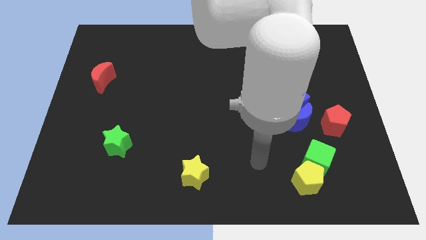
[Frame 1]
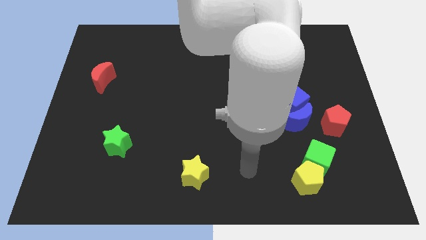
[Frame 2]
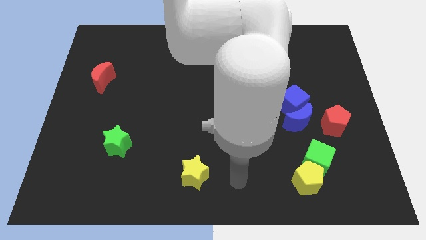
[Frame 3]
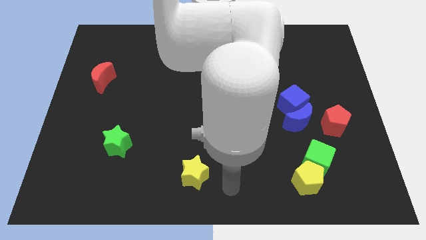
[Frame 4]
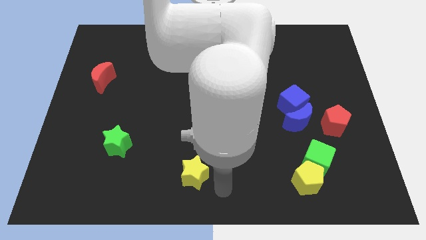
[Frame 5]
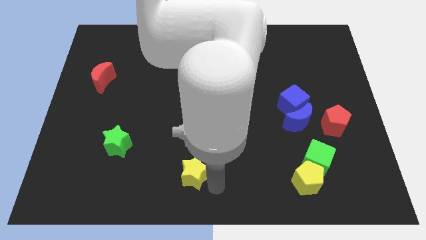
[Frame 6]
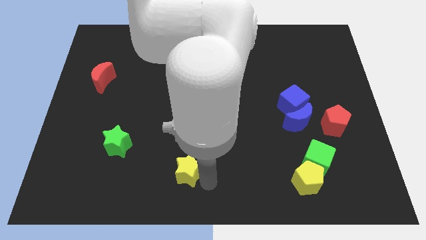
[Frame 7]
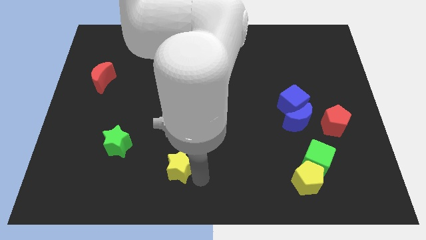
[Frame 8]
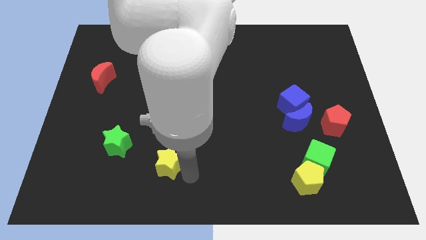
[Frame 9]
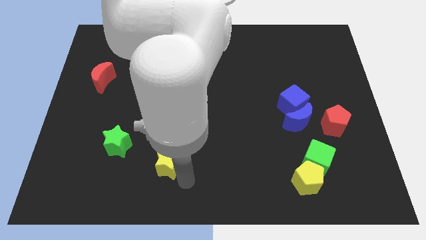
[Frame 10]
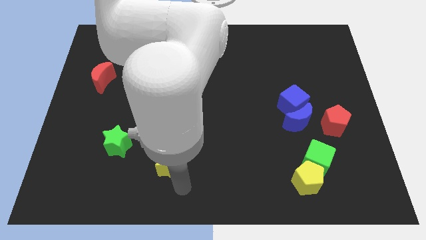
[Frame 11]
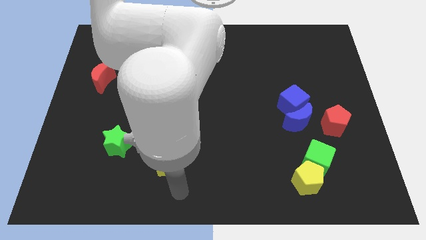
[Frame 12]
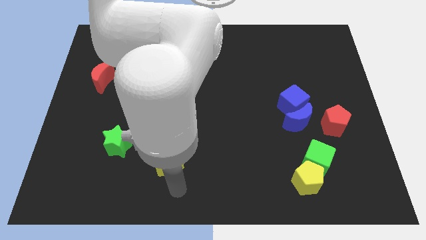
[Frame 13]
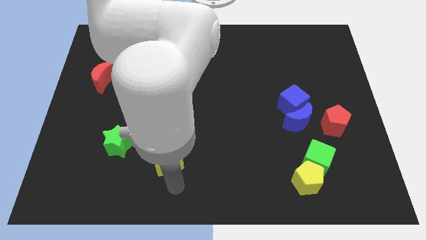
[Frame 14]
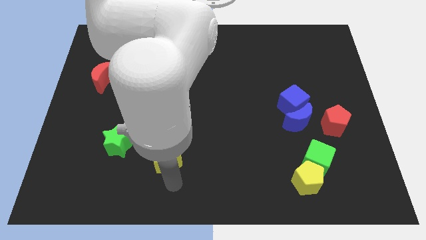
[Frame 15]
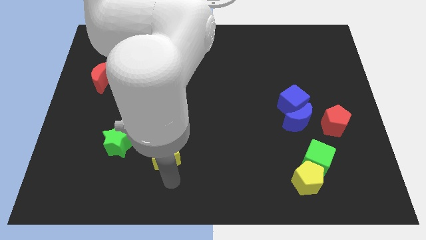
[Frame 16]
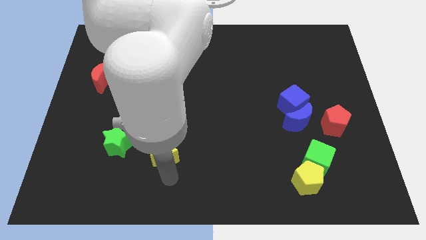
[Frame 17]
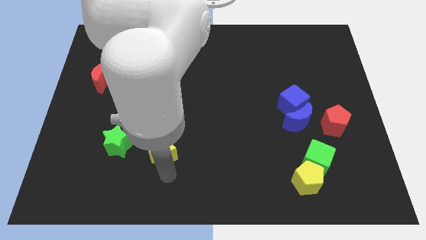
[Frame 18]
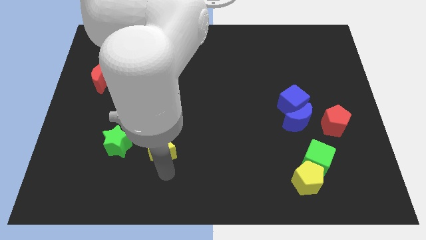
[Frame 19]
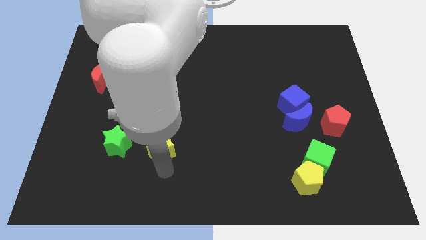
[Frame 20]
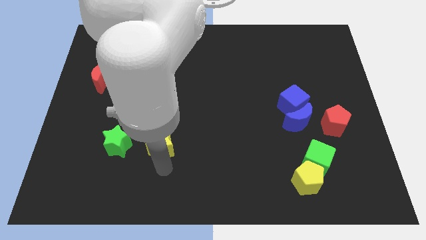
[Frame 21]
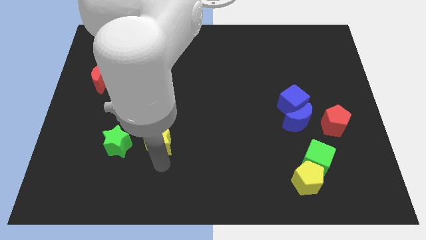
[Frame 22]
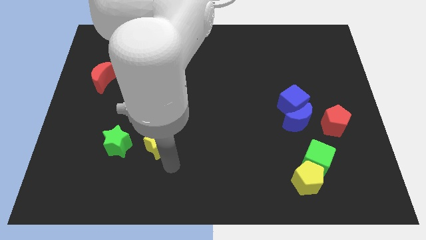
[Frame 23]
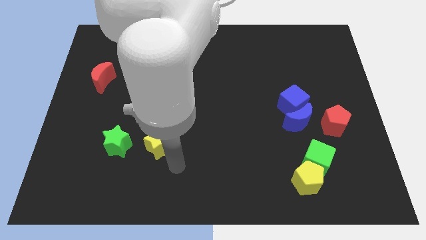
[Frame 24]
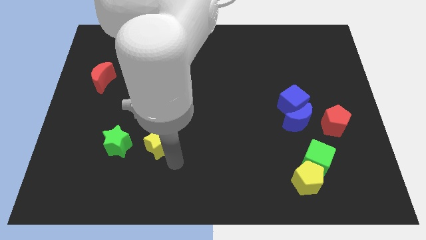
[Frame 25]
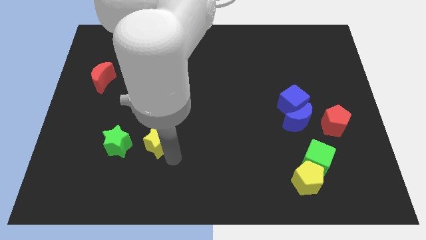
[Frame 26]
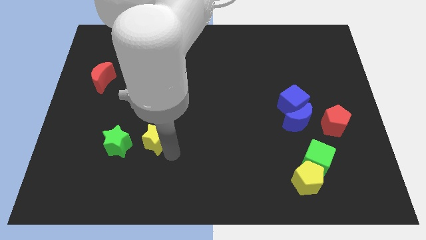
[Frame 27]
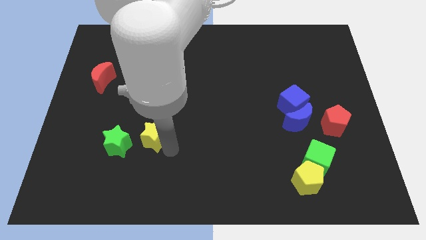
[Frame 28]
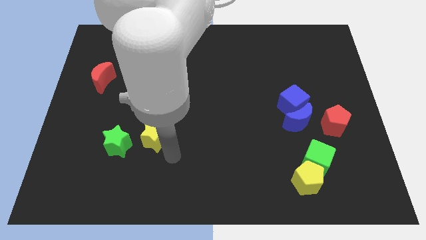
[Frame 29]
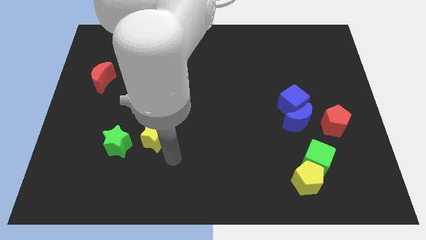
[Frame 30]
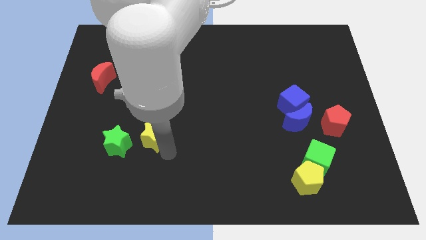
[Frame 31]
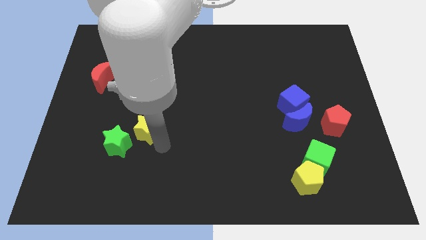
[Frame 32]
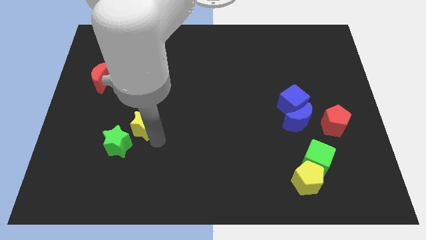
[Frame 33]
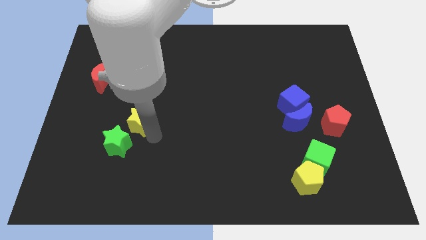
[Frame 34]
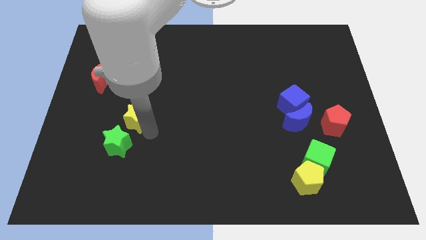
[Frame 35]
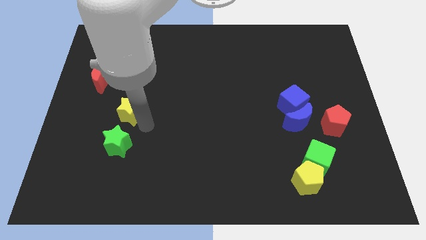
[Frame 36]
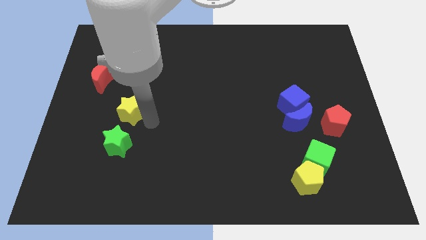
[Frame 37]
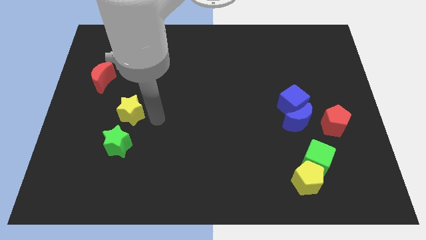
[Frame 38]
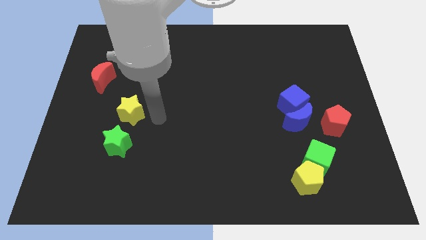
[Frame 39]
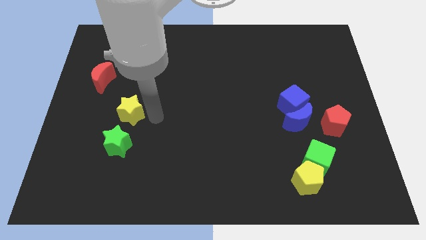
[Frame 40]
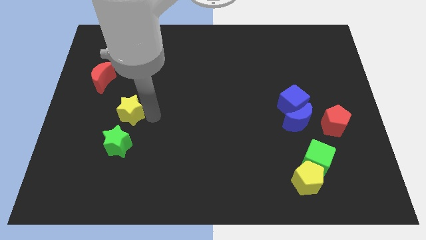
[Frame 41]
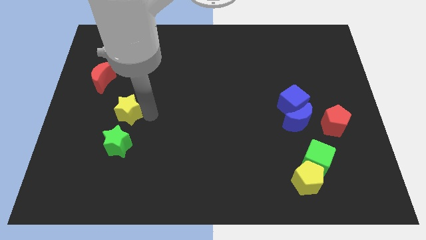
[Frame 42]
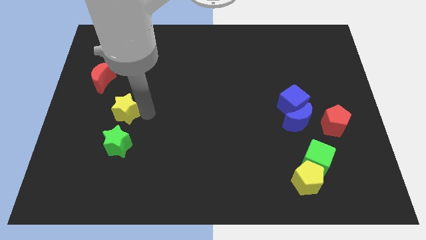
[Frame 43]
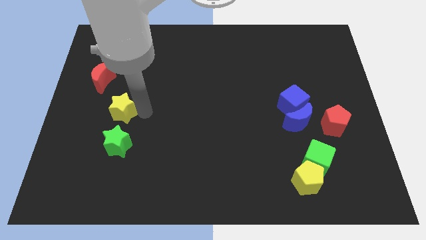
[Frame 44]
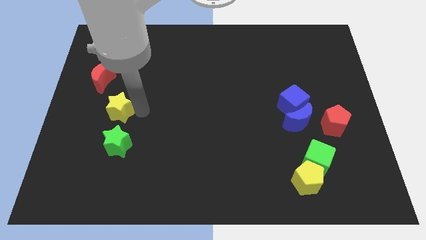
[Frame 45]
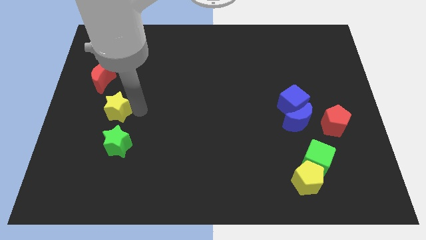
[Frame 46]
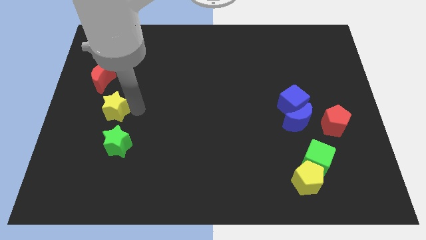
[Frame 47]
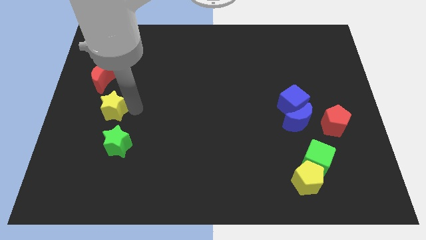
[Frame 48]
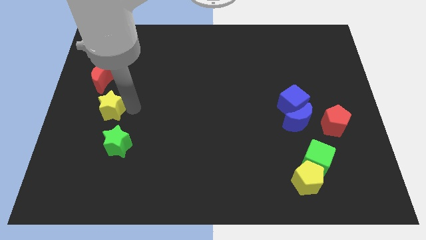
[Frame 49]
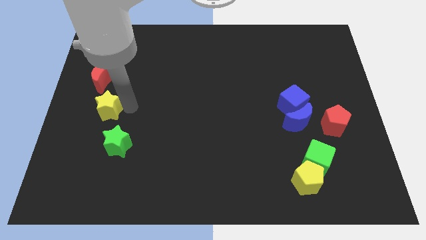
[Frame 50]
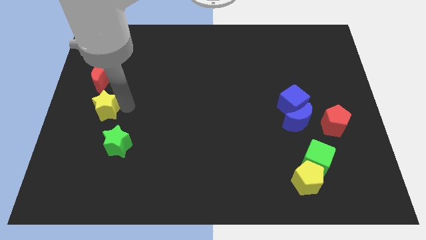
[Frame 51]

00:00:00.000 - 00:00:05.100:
push the yellow star to the left side of the board

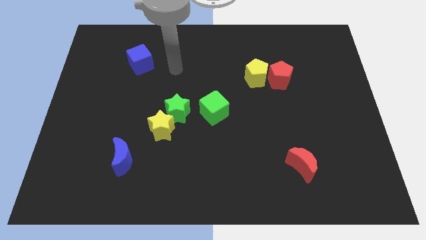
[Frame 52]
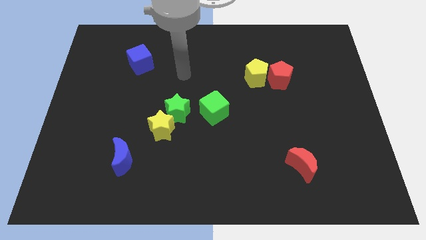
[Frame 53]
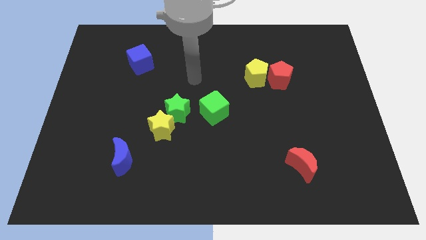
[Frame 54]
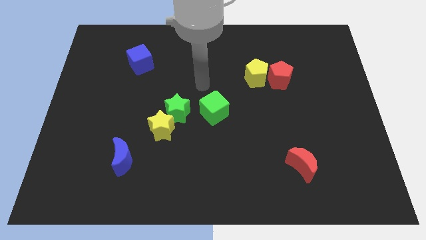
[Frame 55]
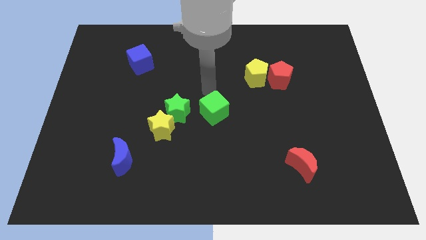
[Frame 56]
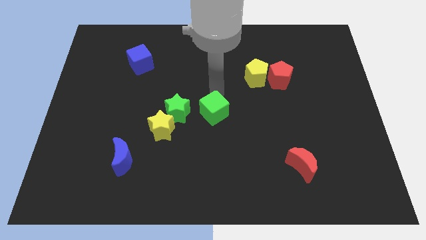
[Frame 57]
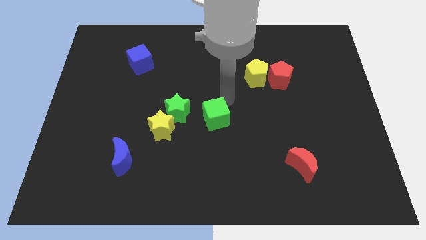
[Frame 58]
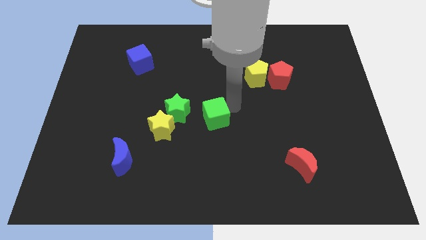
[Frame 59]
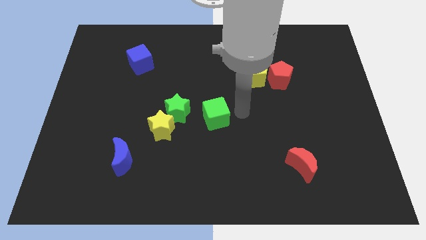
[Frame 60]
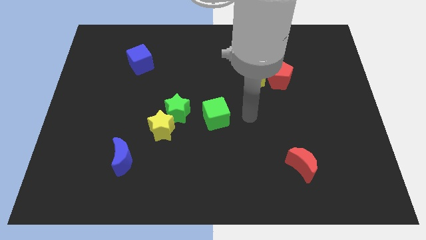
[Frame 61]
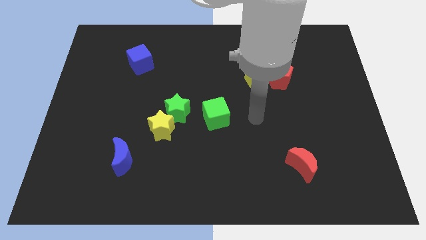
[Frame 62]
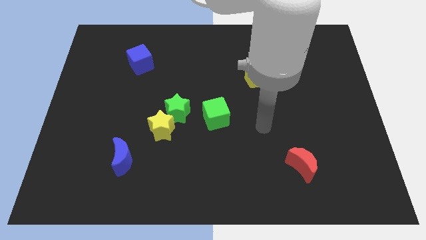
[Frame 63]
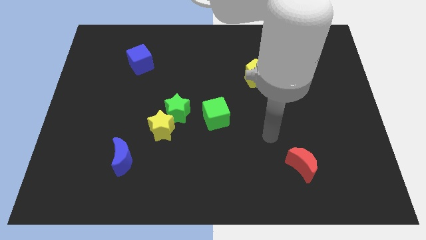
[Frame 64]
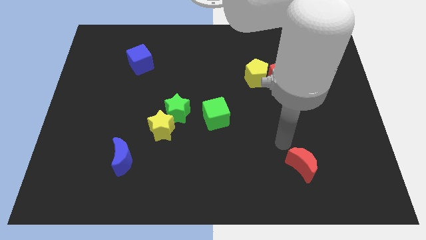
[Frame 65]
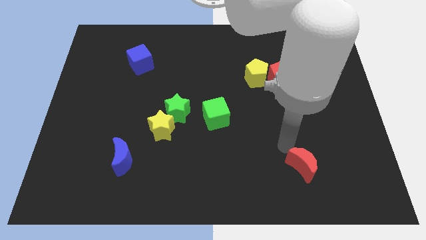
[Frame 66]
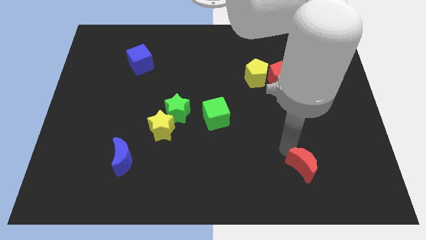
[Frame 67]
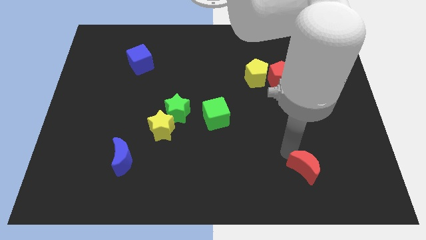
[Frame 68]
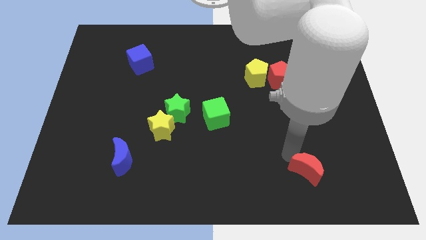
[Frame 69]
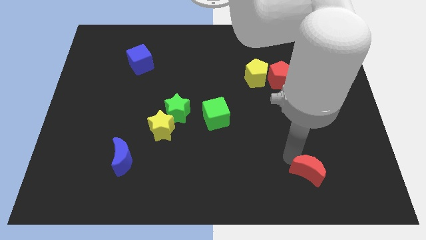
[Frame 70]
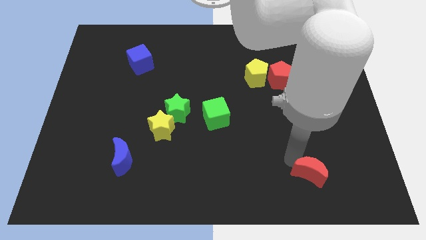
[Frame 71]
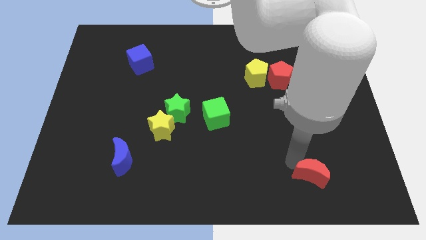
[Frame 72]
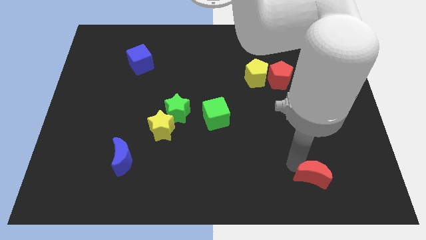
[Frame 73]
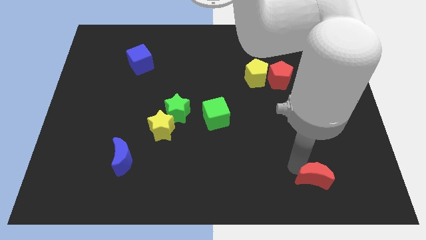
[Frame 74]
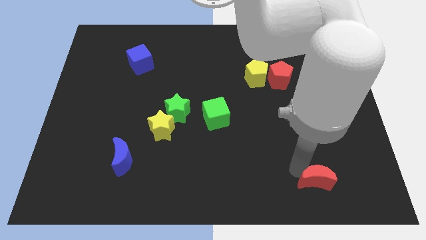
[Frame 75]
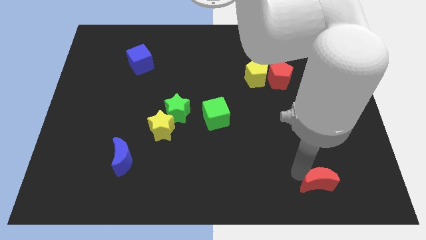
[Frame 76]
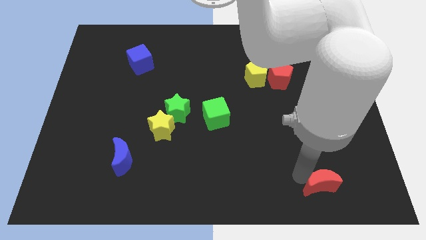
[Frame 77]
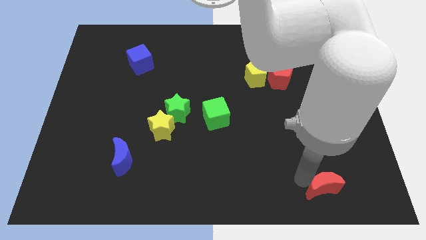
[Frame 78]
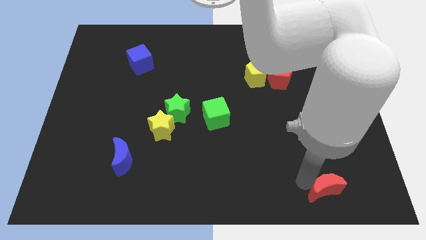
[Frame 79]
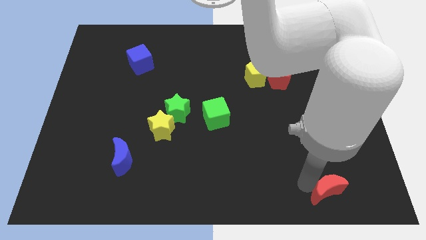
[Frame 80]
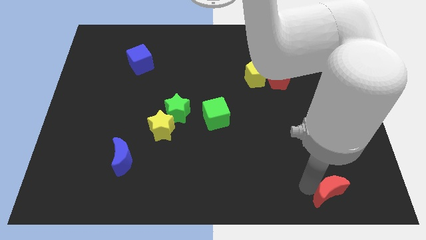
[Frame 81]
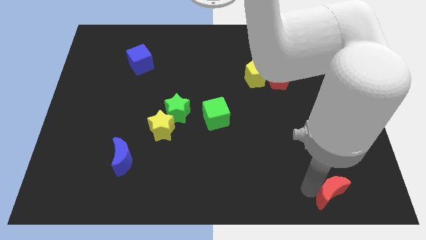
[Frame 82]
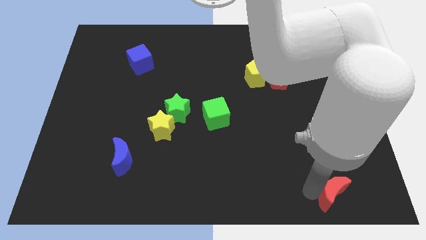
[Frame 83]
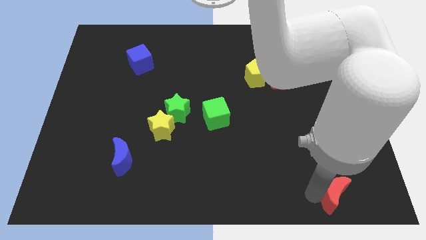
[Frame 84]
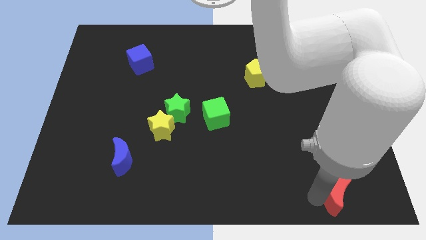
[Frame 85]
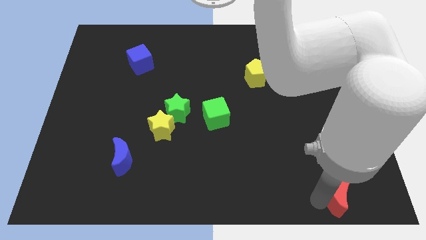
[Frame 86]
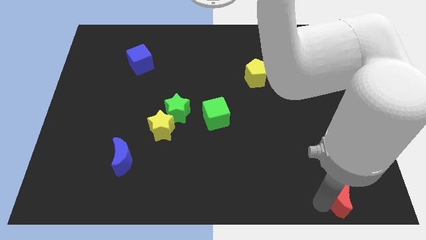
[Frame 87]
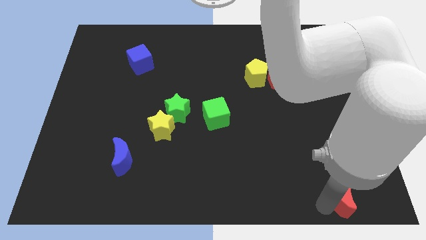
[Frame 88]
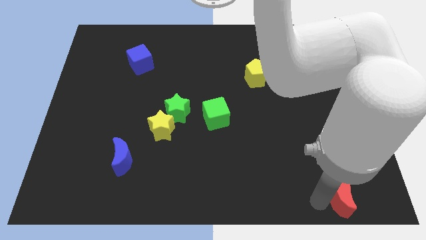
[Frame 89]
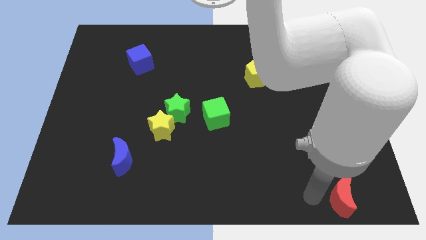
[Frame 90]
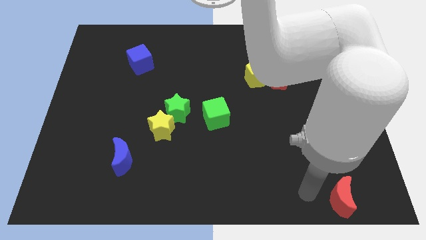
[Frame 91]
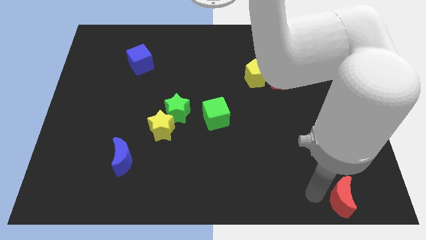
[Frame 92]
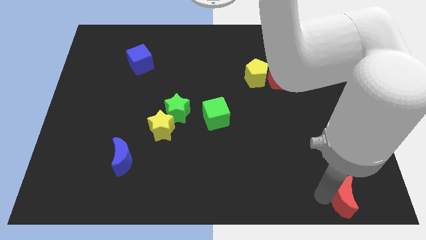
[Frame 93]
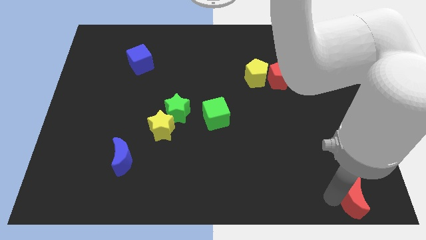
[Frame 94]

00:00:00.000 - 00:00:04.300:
put the red moon to the lower right corner
